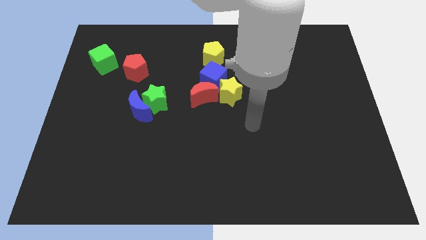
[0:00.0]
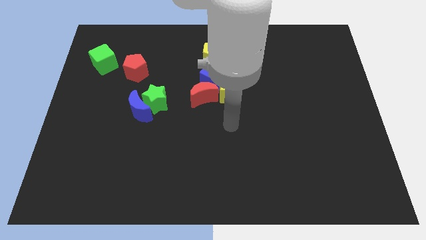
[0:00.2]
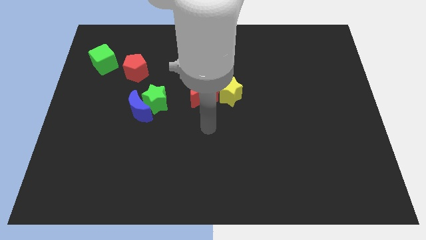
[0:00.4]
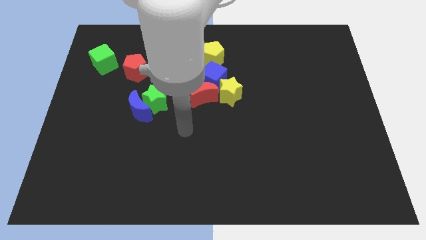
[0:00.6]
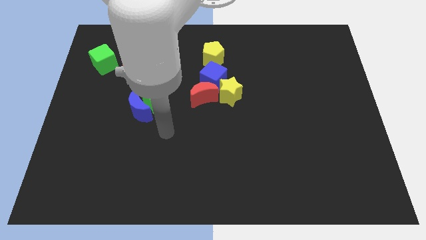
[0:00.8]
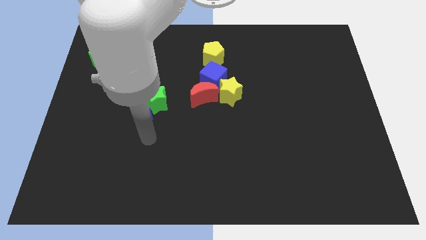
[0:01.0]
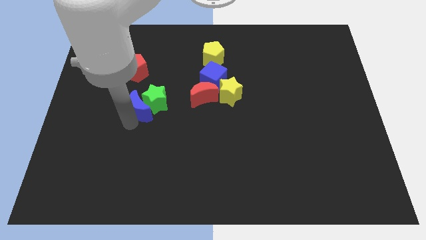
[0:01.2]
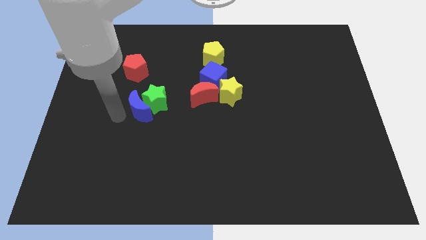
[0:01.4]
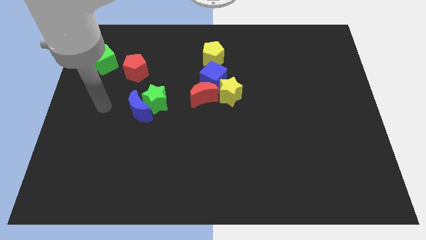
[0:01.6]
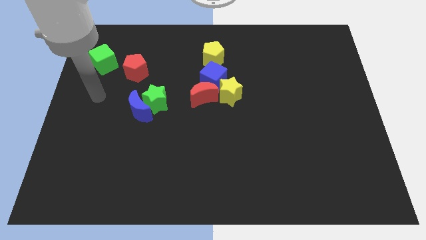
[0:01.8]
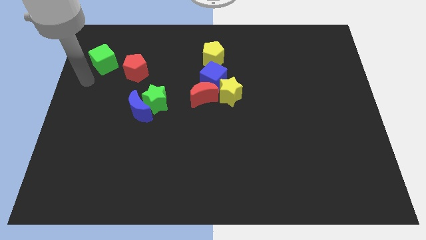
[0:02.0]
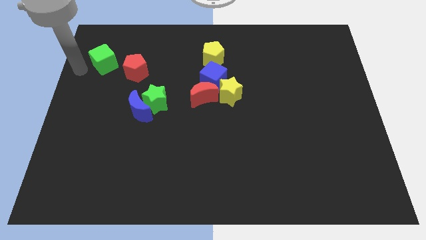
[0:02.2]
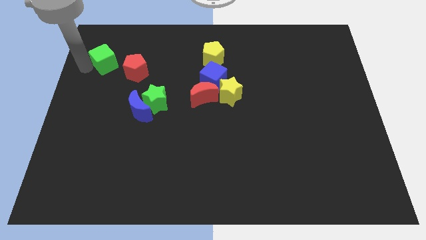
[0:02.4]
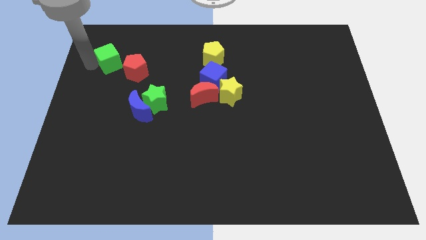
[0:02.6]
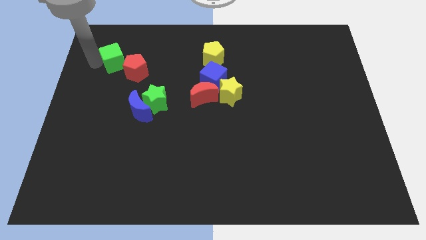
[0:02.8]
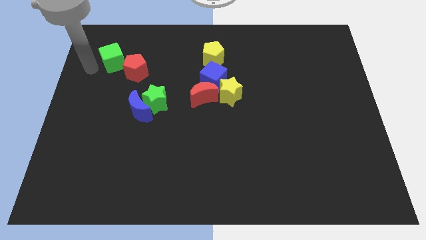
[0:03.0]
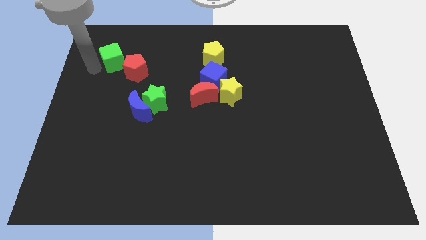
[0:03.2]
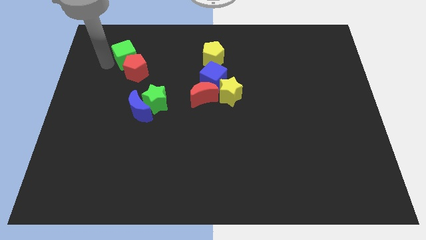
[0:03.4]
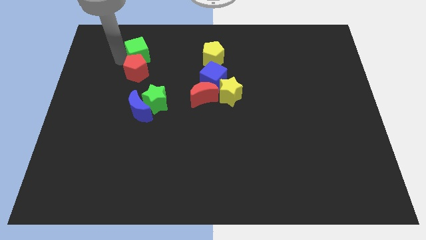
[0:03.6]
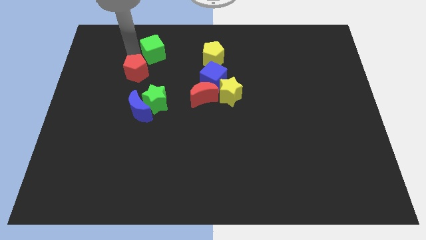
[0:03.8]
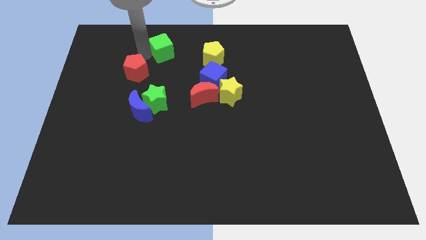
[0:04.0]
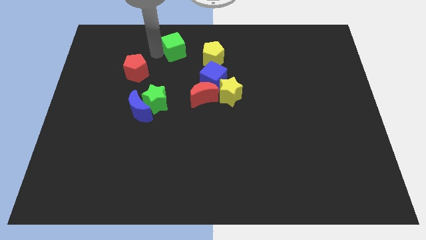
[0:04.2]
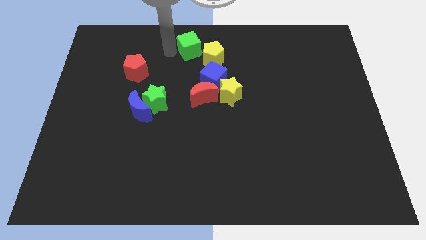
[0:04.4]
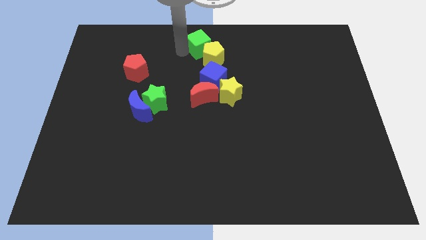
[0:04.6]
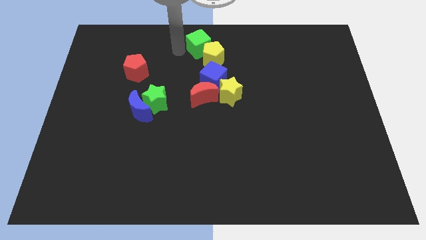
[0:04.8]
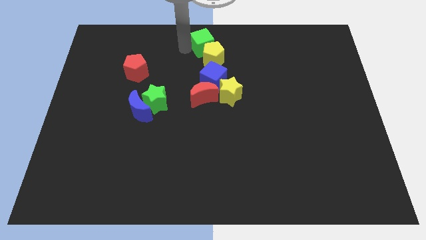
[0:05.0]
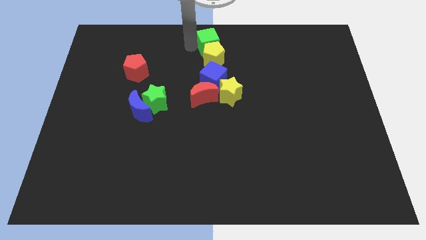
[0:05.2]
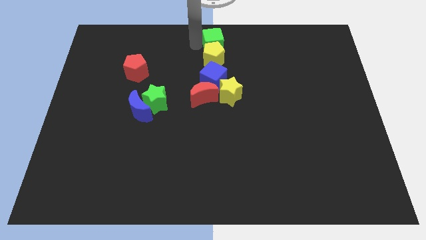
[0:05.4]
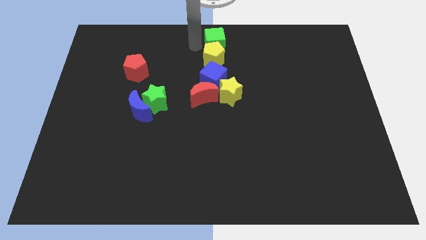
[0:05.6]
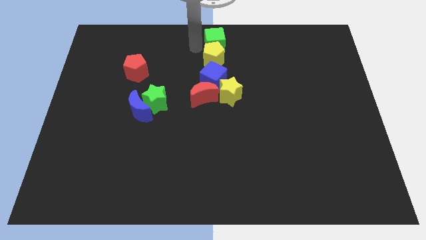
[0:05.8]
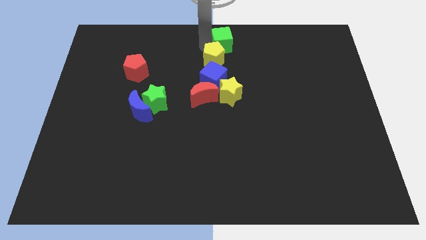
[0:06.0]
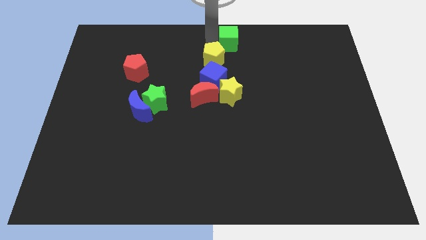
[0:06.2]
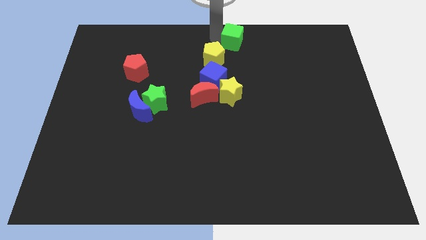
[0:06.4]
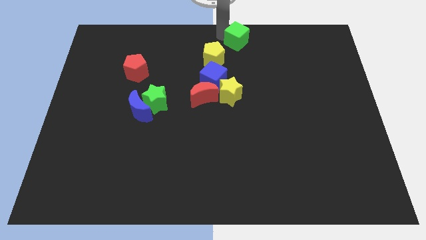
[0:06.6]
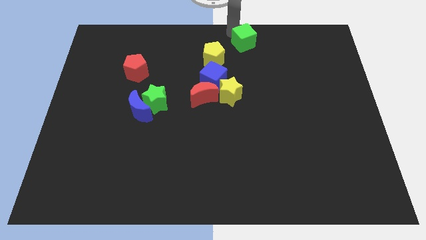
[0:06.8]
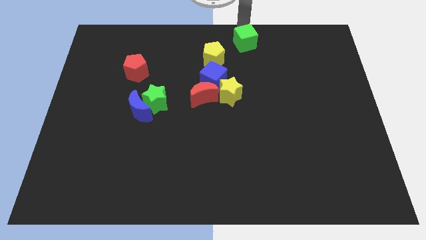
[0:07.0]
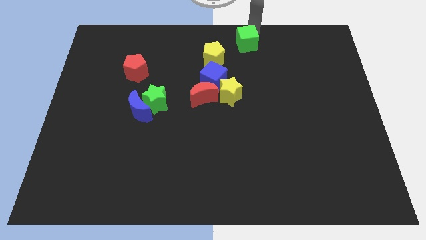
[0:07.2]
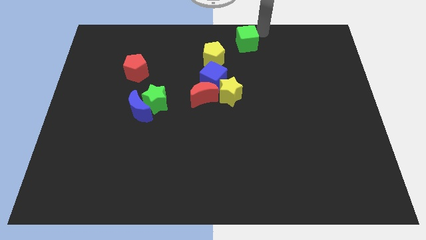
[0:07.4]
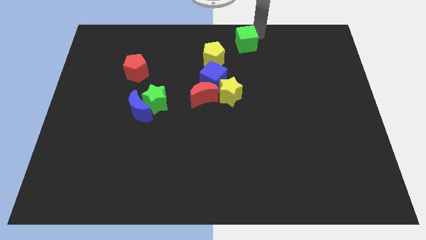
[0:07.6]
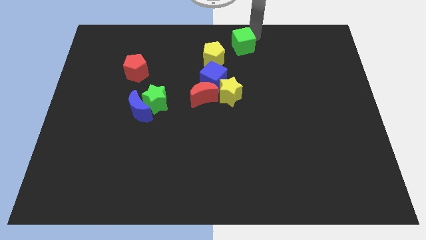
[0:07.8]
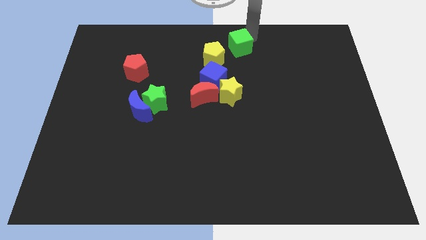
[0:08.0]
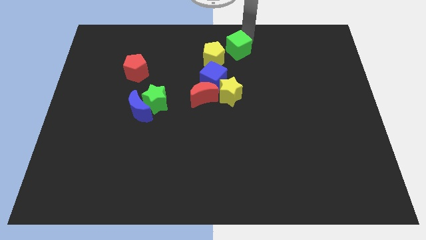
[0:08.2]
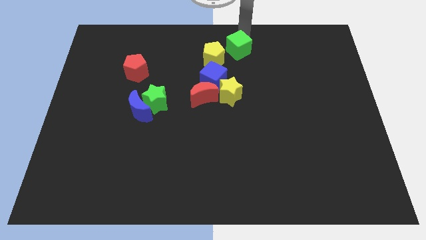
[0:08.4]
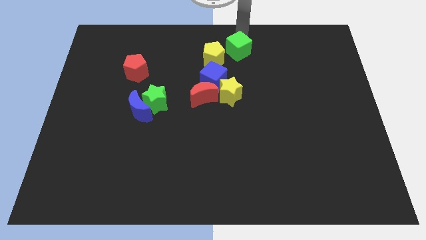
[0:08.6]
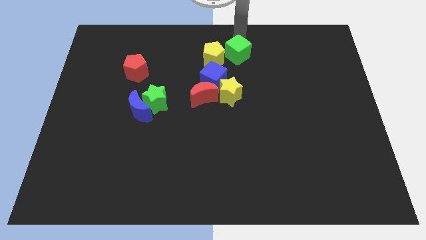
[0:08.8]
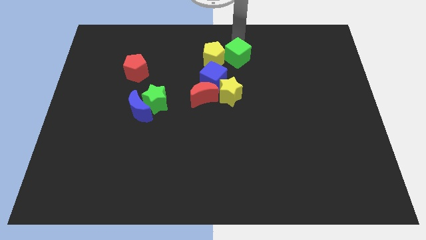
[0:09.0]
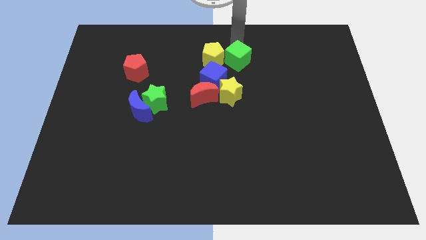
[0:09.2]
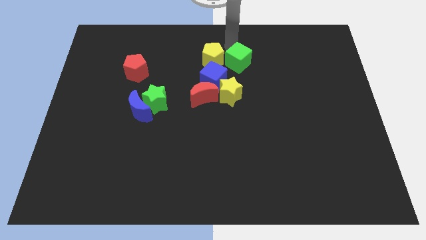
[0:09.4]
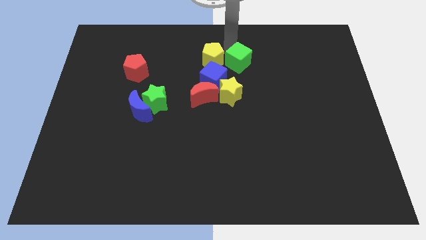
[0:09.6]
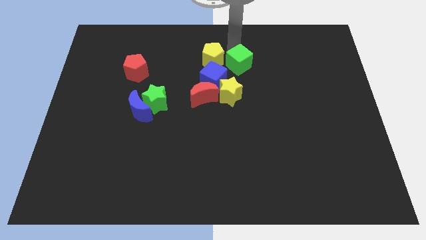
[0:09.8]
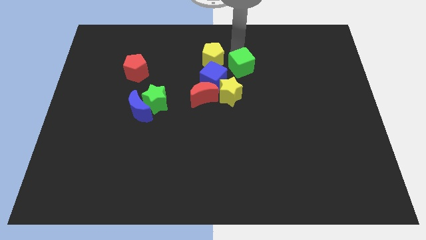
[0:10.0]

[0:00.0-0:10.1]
slide the green cube to the top right side of the yellow star

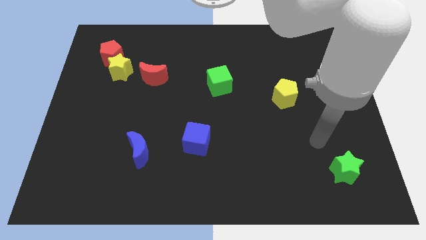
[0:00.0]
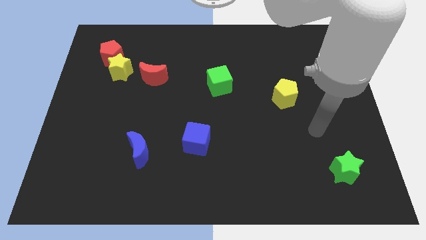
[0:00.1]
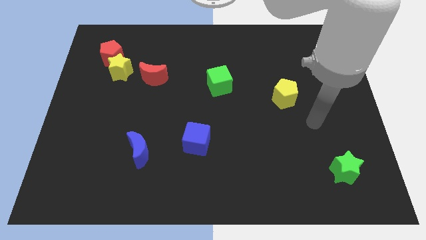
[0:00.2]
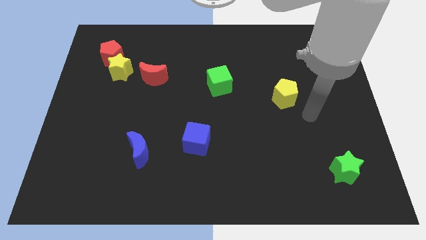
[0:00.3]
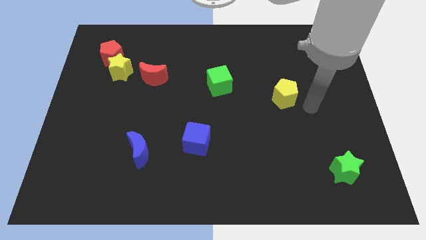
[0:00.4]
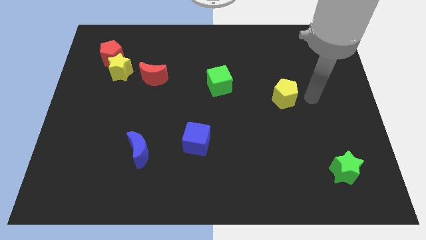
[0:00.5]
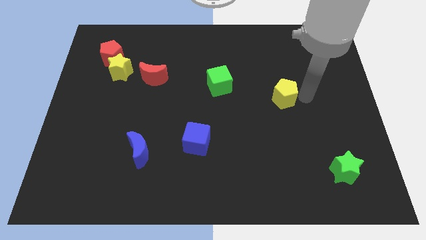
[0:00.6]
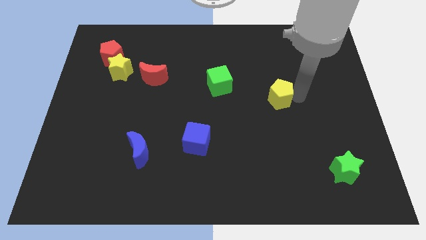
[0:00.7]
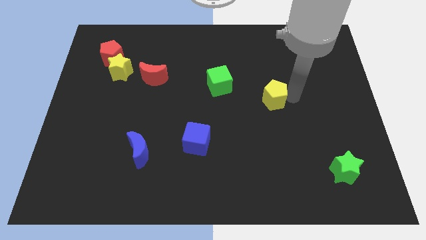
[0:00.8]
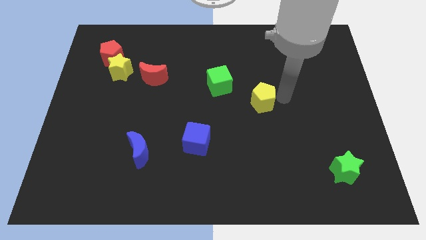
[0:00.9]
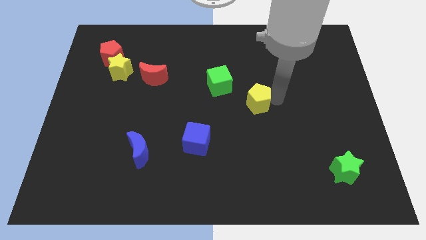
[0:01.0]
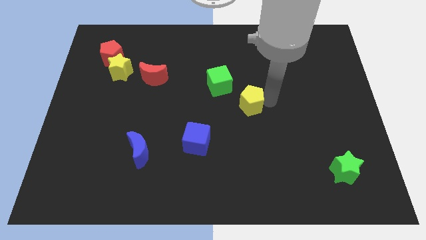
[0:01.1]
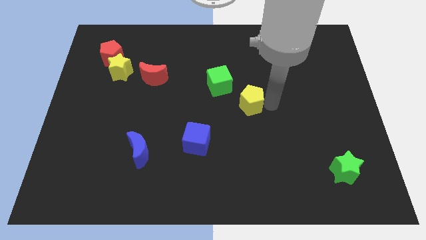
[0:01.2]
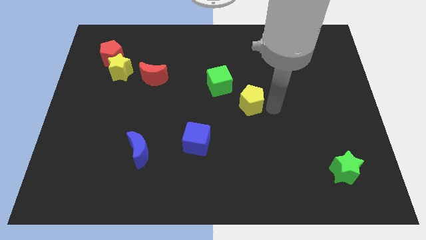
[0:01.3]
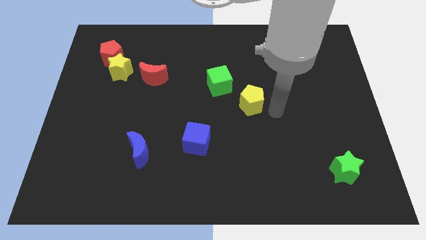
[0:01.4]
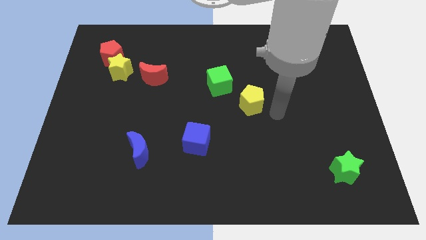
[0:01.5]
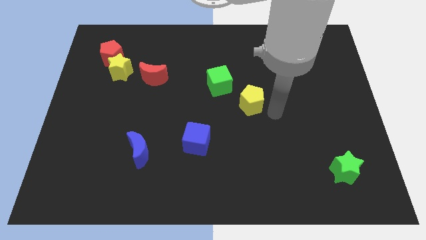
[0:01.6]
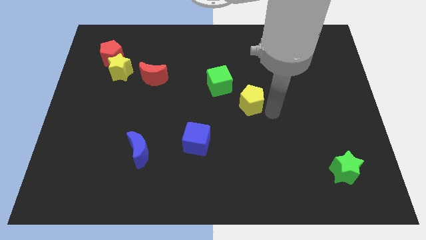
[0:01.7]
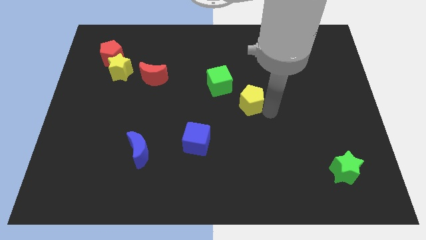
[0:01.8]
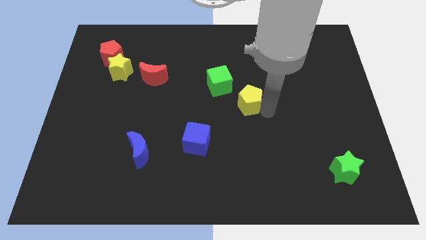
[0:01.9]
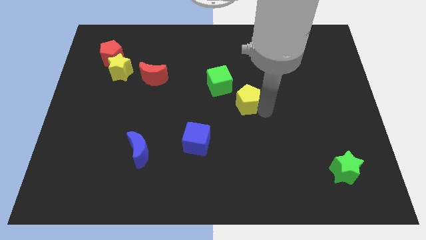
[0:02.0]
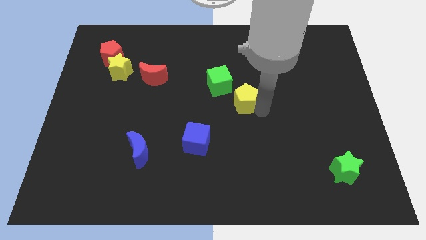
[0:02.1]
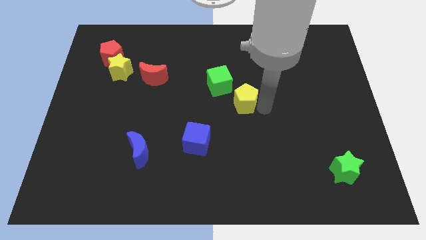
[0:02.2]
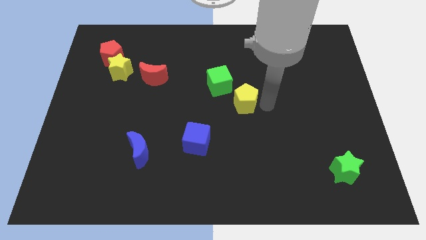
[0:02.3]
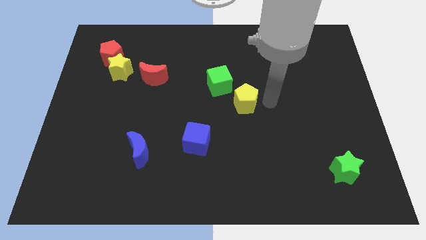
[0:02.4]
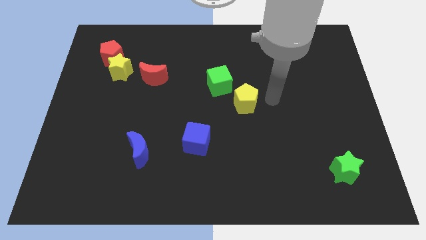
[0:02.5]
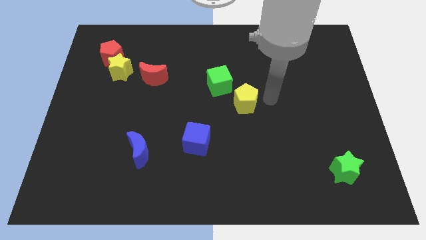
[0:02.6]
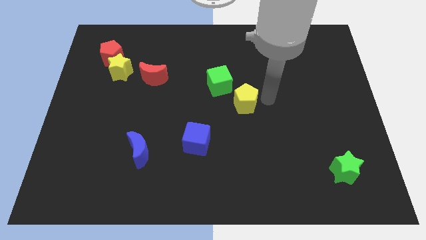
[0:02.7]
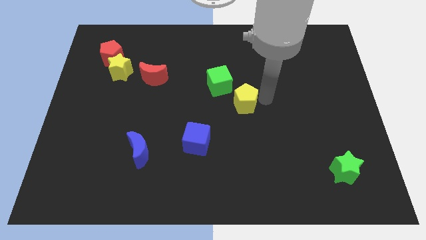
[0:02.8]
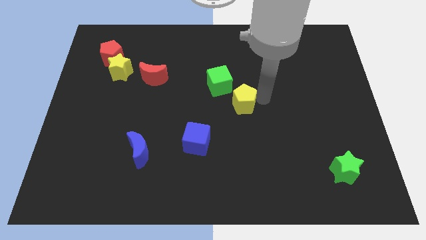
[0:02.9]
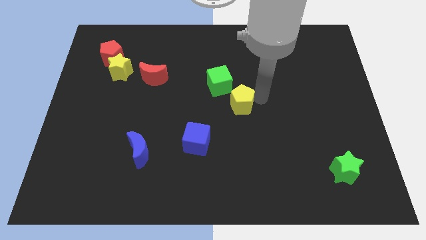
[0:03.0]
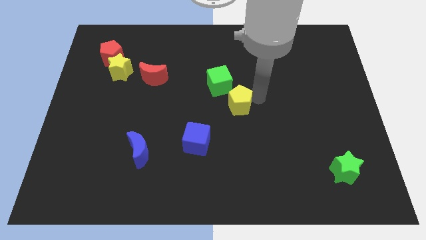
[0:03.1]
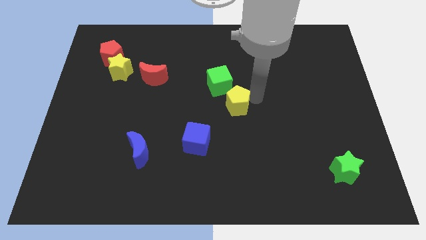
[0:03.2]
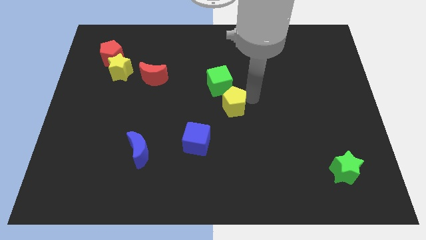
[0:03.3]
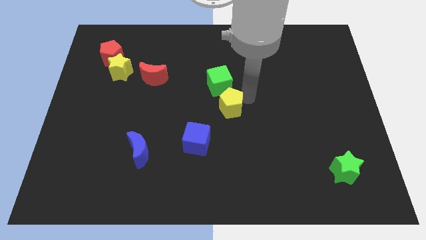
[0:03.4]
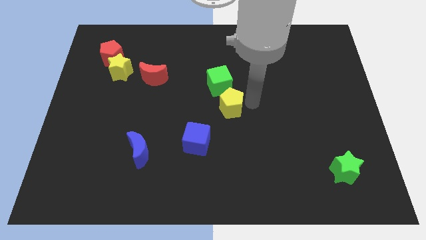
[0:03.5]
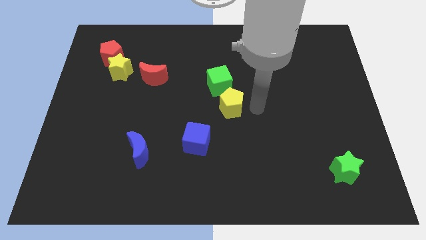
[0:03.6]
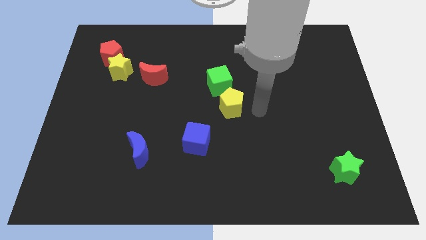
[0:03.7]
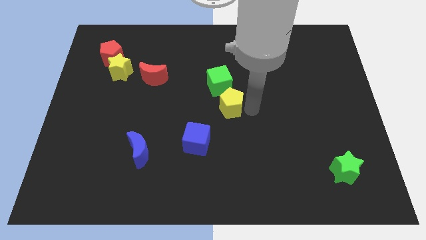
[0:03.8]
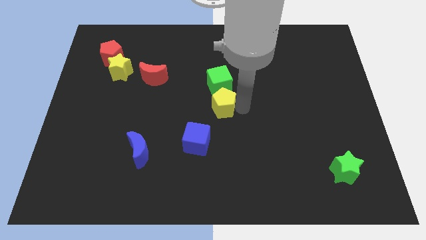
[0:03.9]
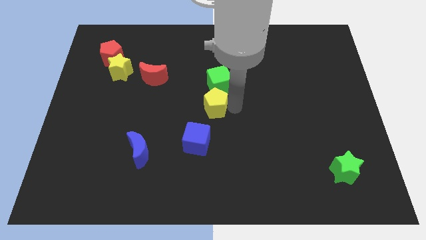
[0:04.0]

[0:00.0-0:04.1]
push the yellow pentagon to the bottom left side of the green cube
